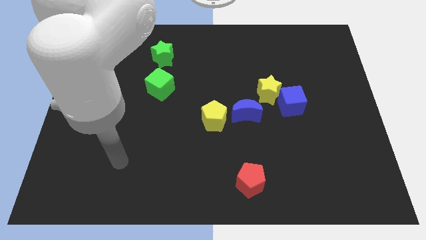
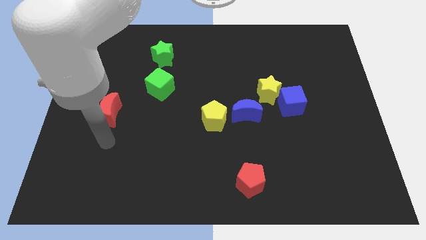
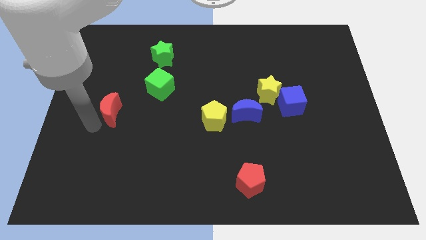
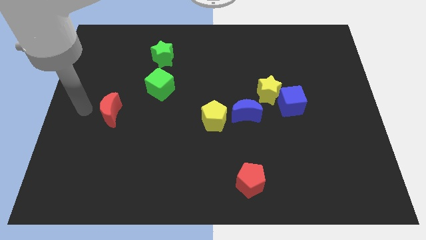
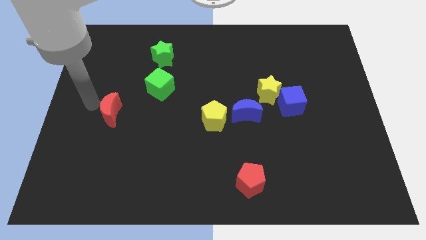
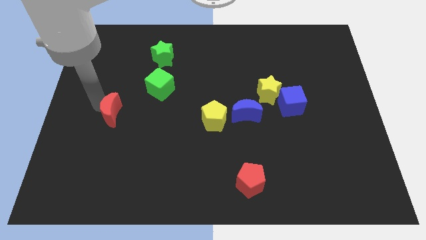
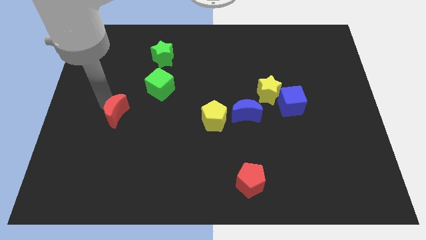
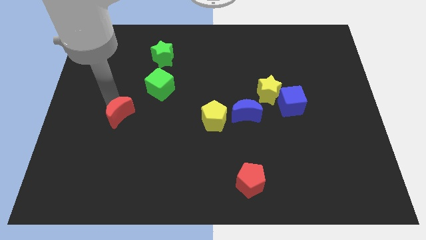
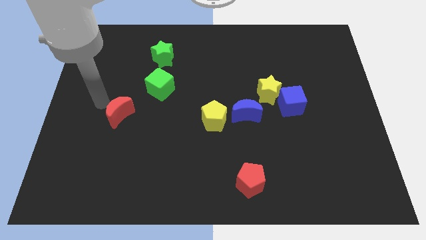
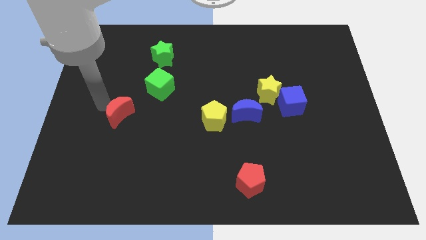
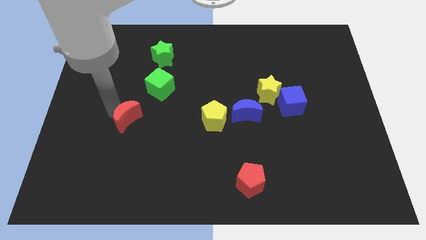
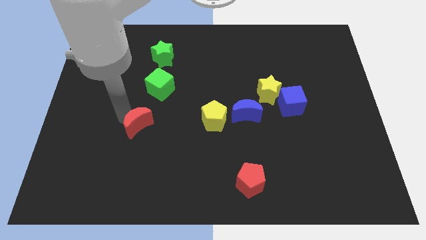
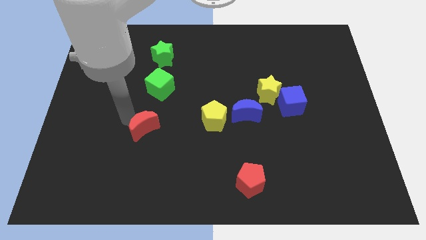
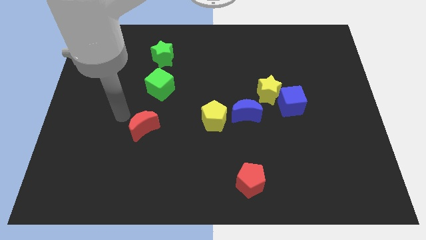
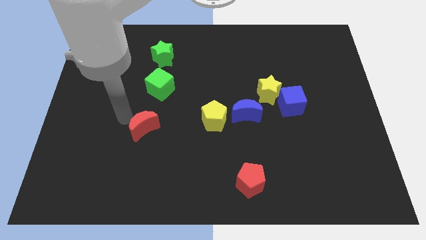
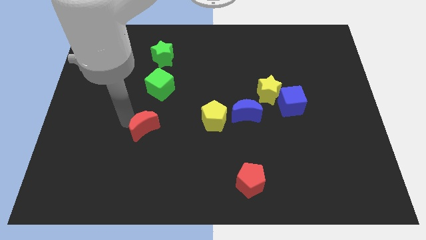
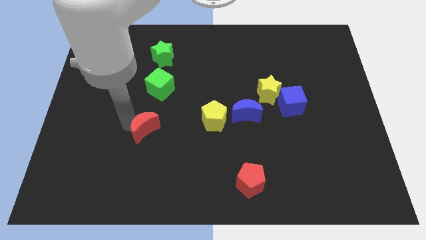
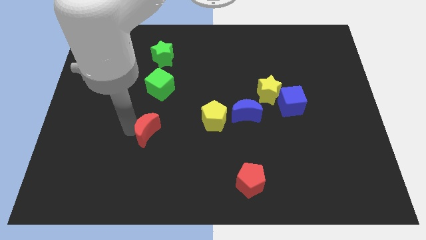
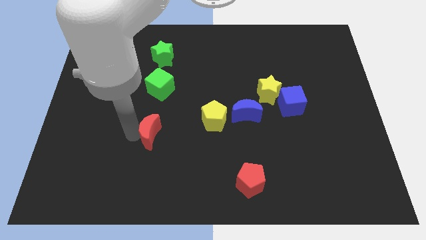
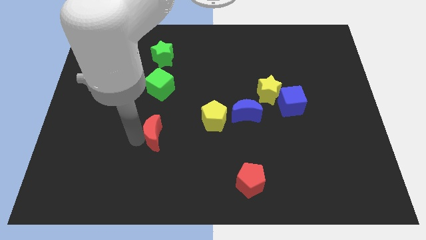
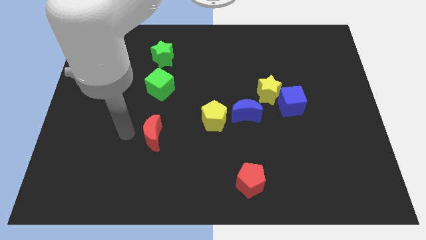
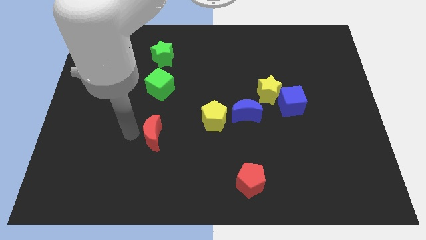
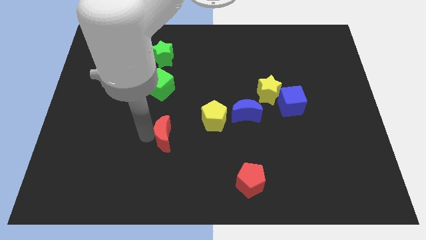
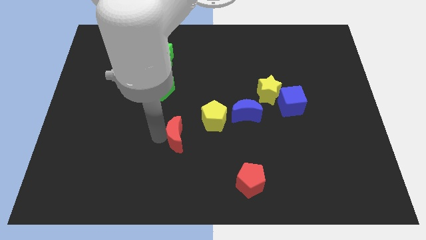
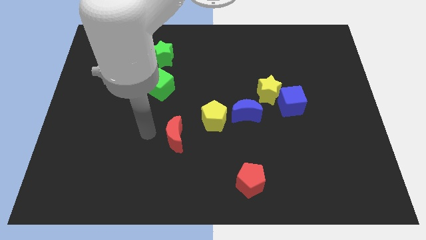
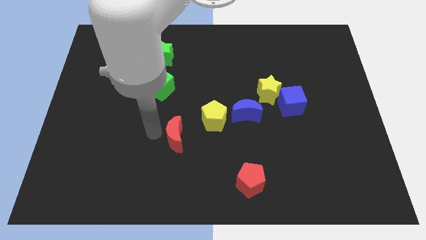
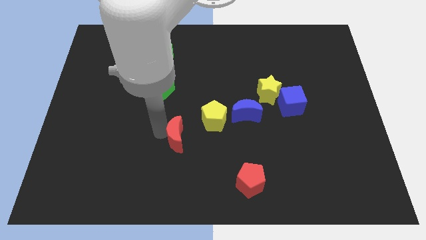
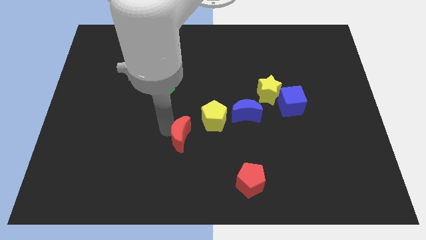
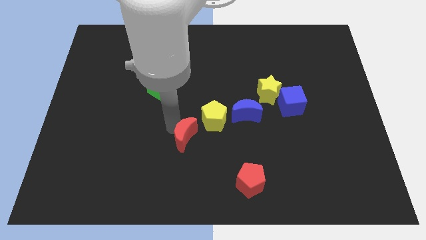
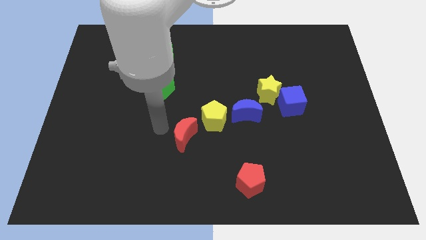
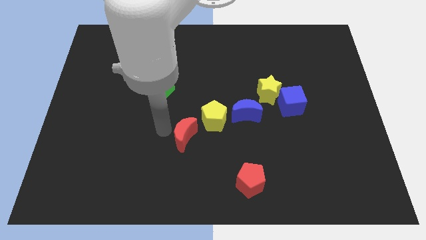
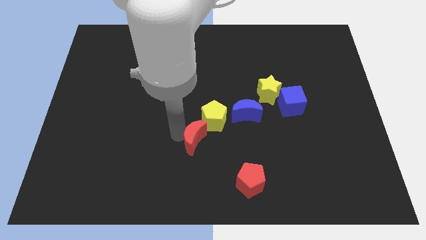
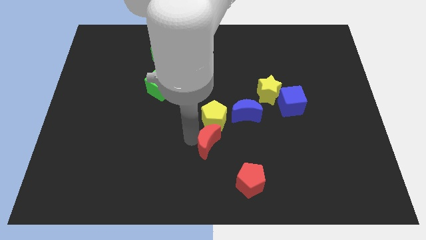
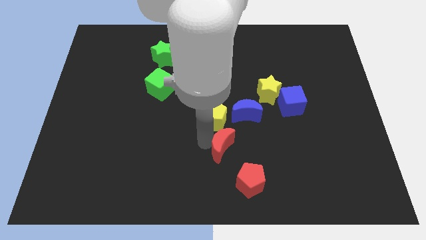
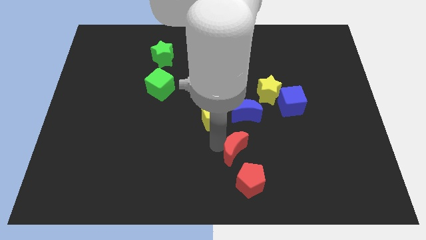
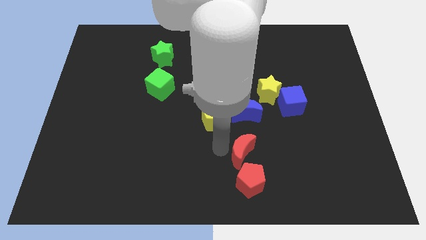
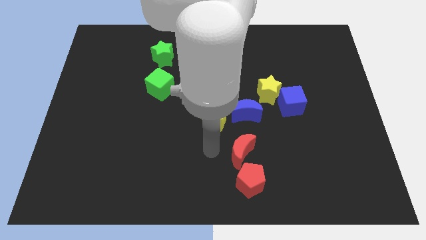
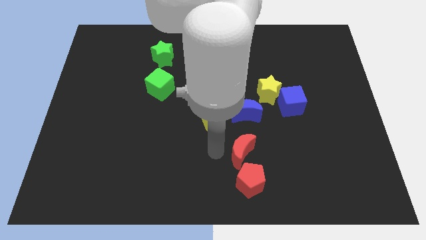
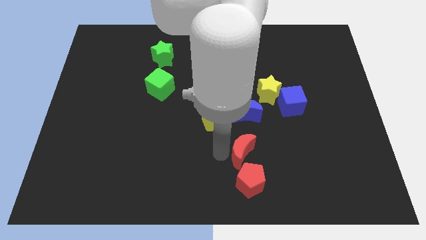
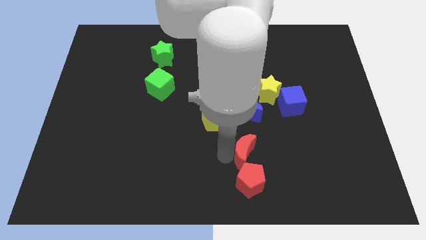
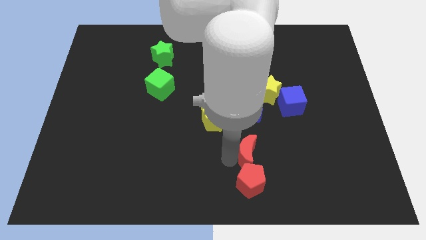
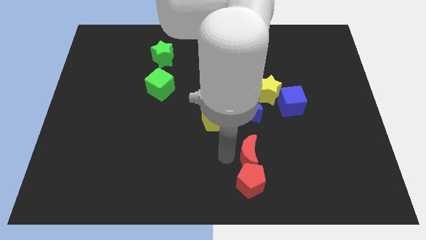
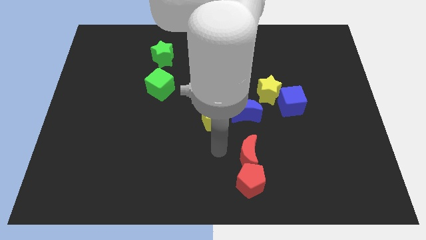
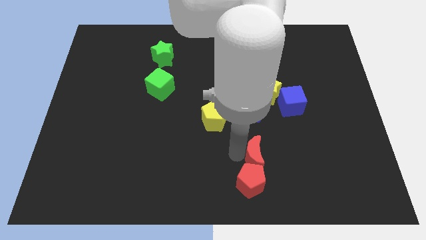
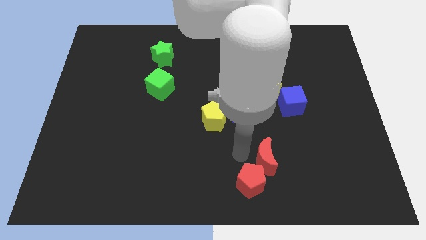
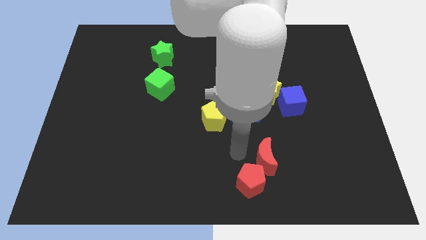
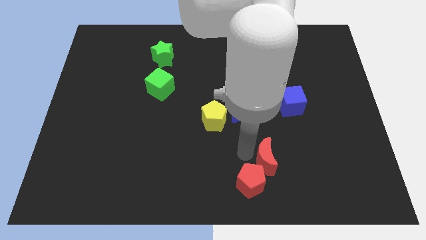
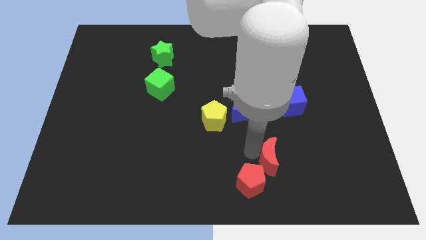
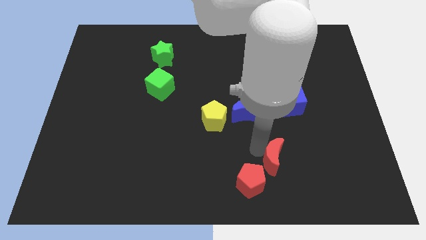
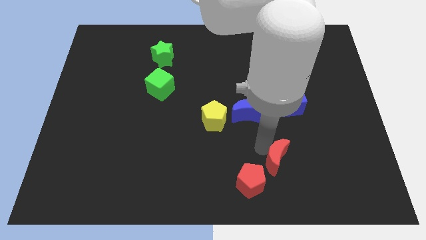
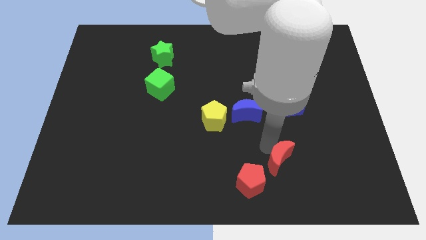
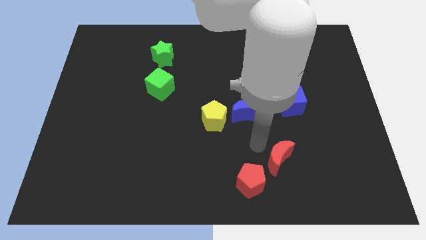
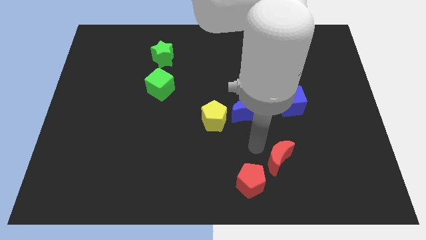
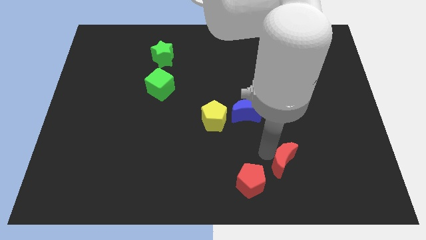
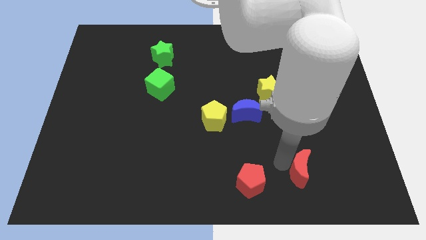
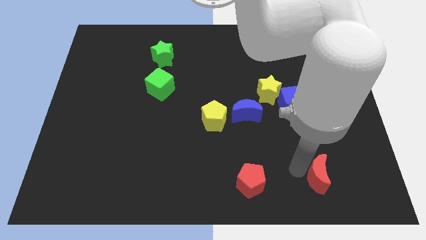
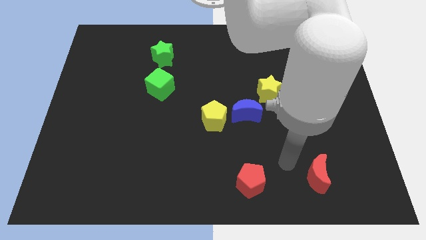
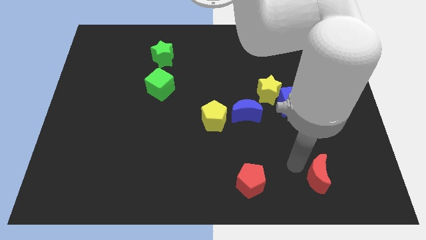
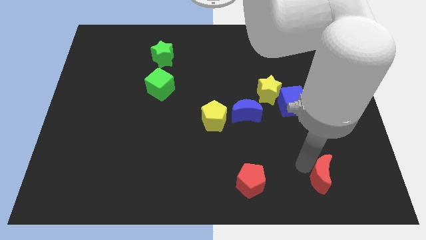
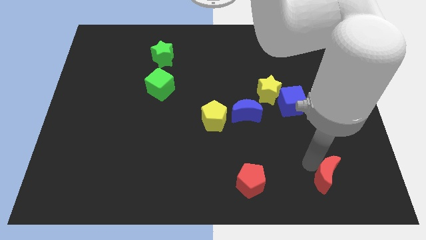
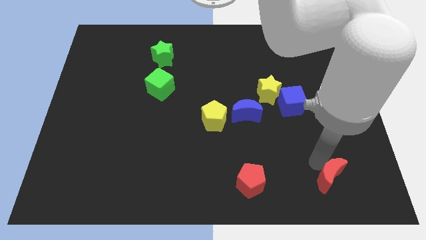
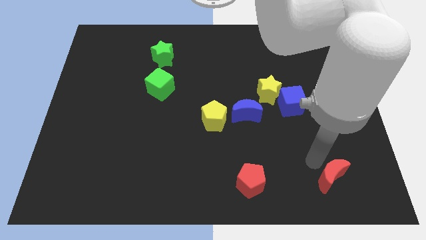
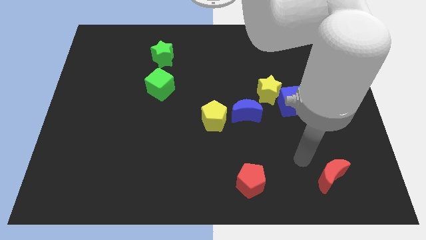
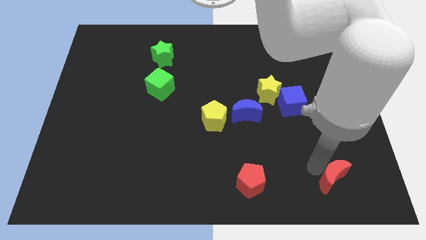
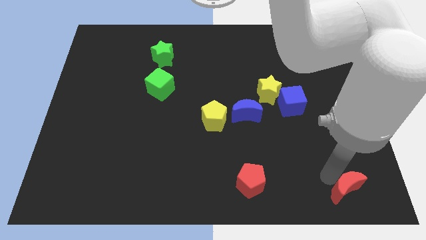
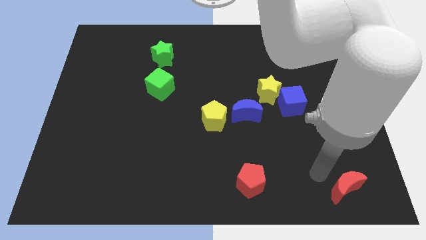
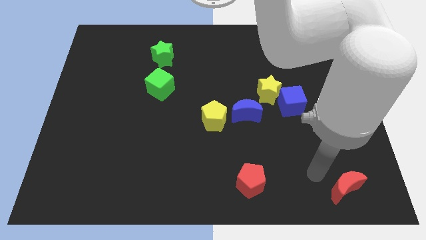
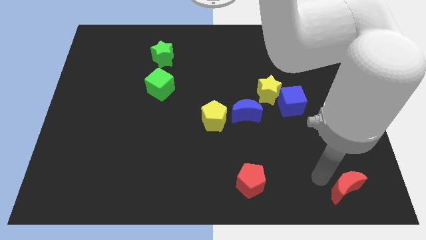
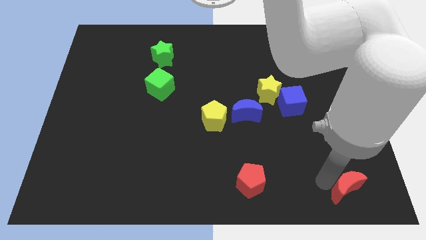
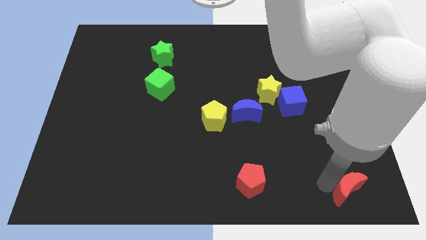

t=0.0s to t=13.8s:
move the red moon to the bottom right
